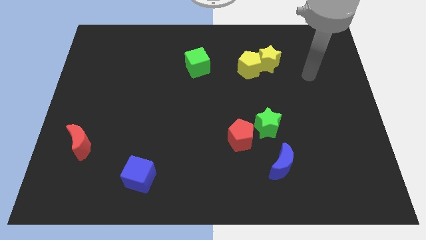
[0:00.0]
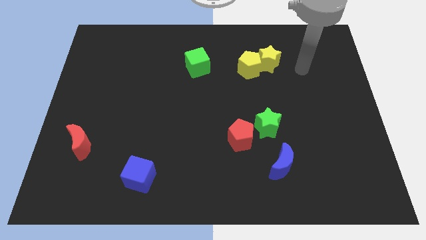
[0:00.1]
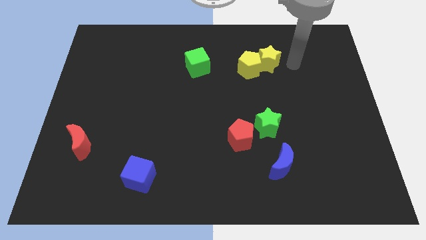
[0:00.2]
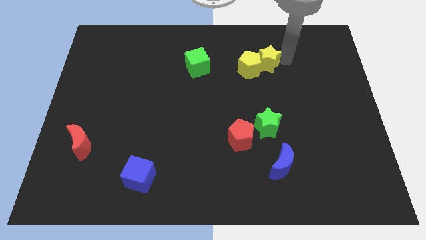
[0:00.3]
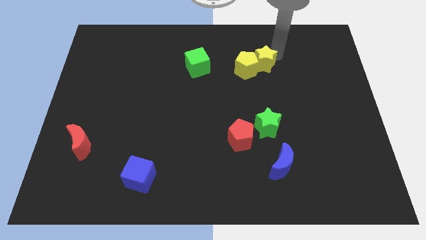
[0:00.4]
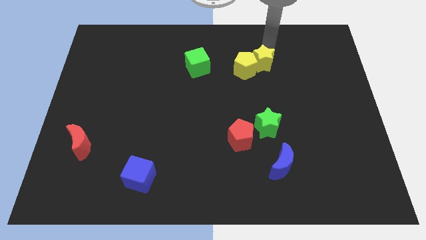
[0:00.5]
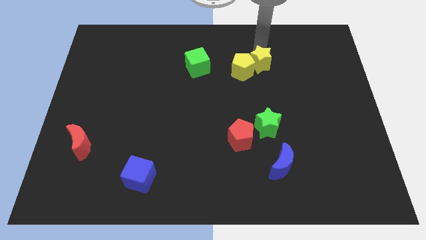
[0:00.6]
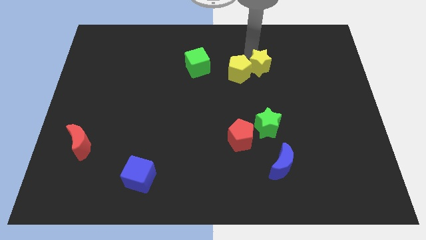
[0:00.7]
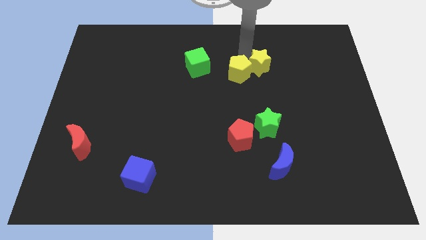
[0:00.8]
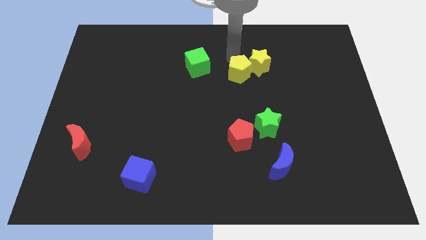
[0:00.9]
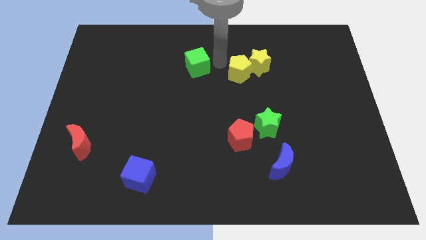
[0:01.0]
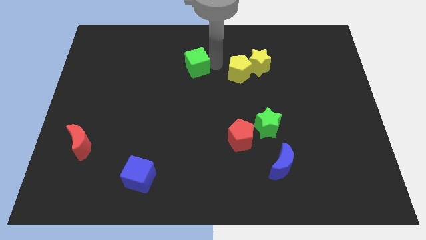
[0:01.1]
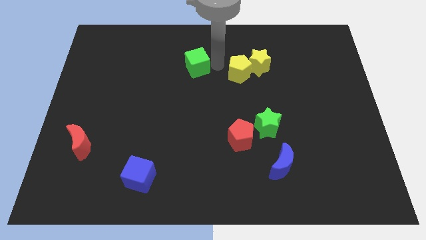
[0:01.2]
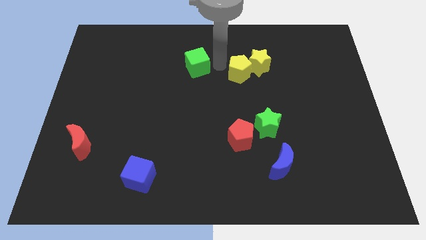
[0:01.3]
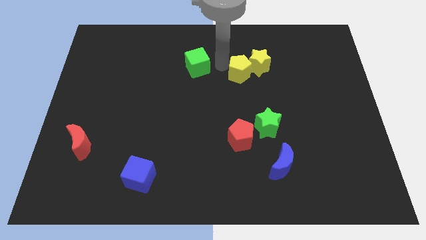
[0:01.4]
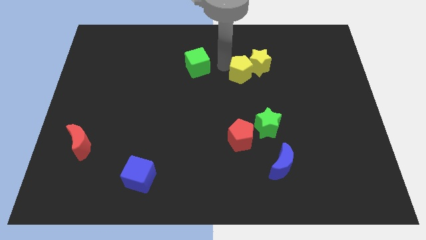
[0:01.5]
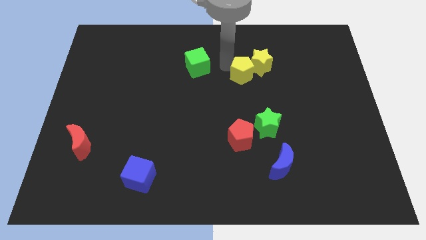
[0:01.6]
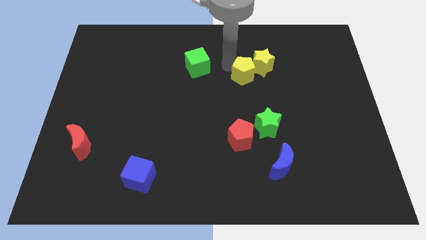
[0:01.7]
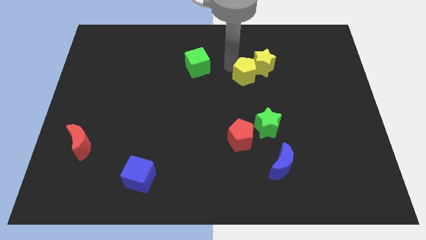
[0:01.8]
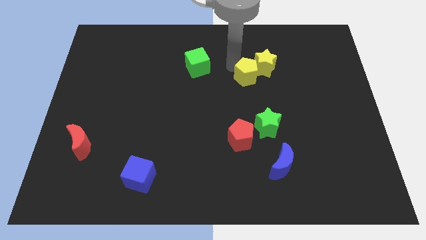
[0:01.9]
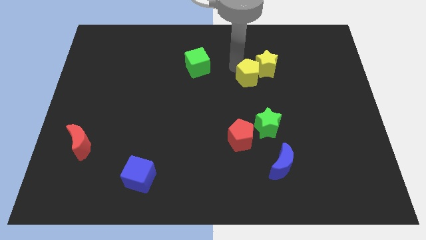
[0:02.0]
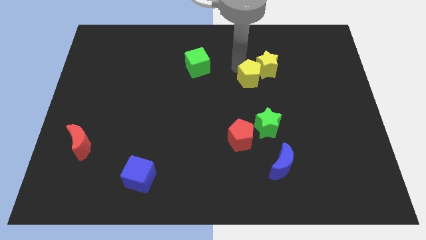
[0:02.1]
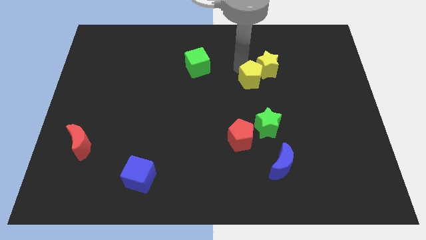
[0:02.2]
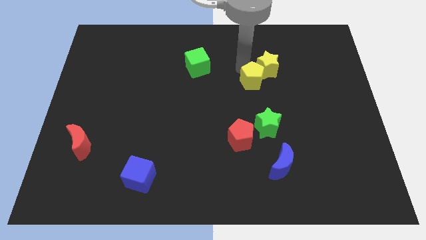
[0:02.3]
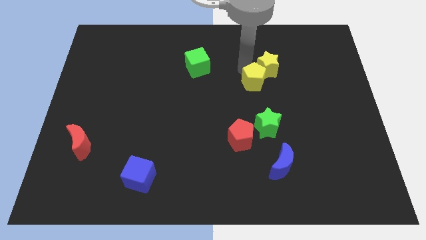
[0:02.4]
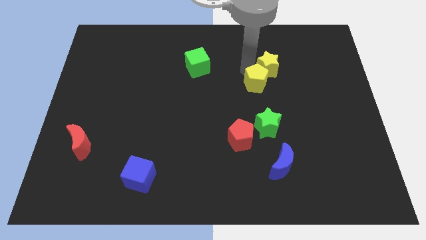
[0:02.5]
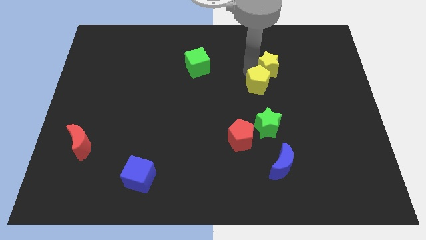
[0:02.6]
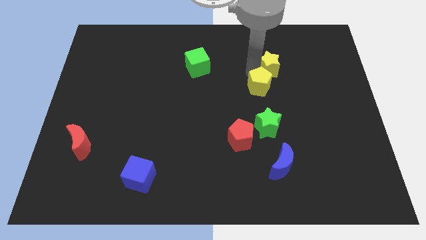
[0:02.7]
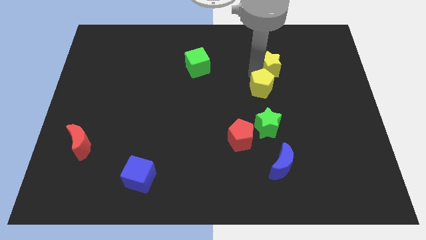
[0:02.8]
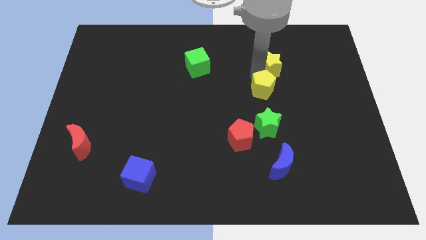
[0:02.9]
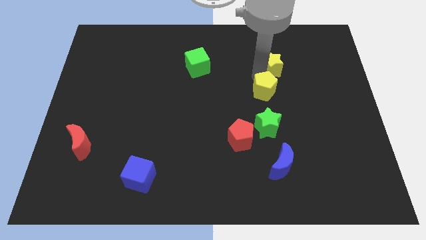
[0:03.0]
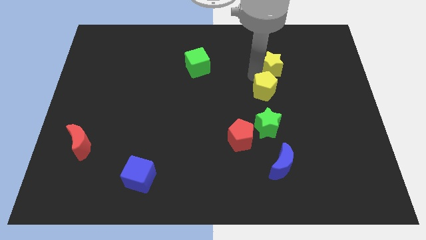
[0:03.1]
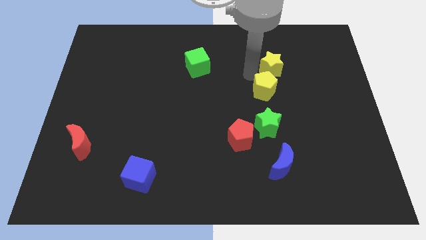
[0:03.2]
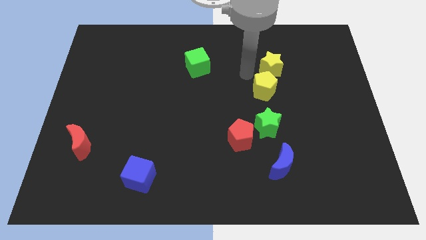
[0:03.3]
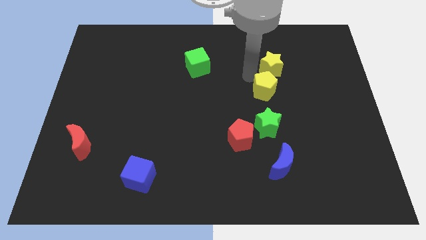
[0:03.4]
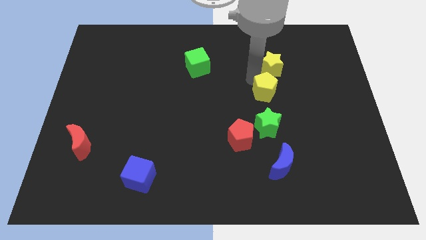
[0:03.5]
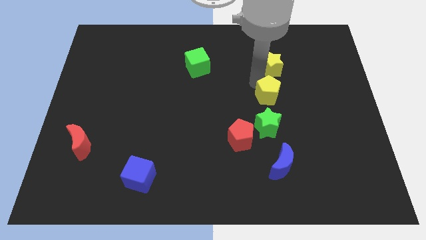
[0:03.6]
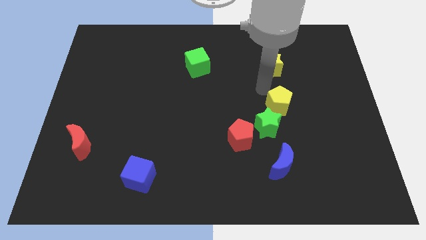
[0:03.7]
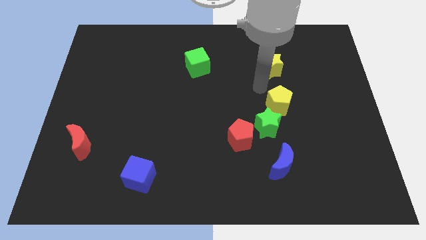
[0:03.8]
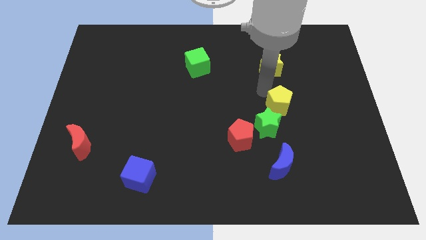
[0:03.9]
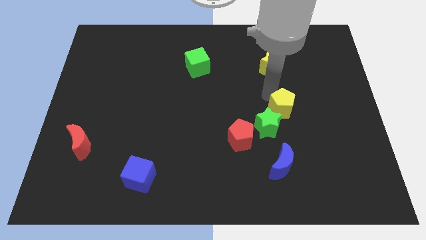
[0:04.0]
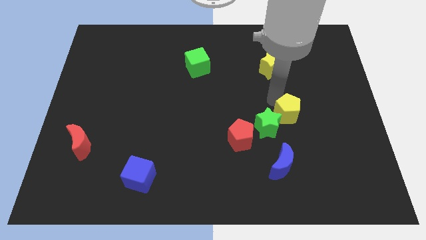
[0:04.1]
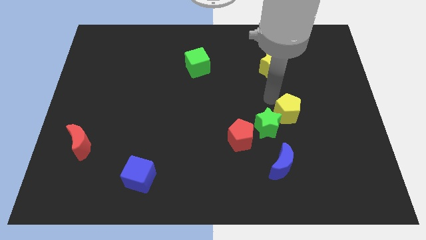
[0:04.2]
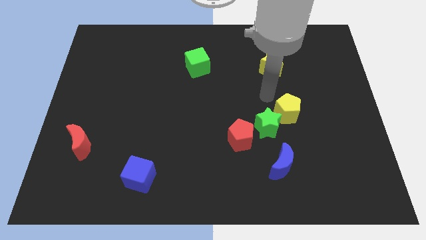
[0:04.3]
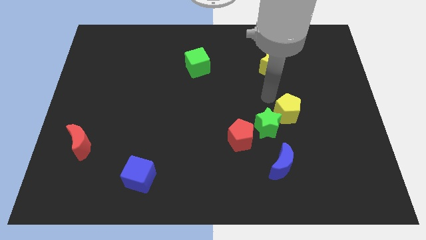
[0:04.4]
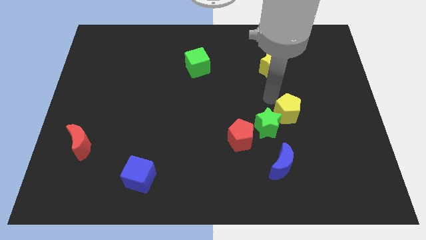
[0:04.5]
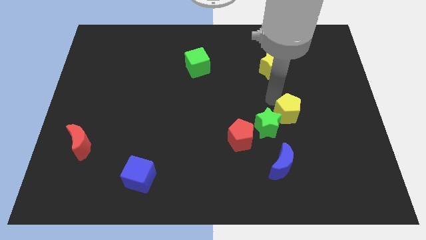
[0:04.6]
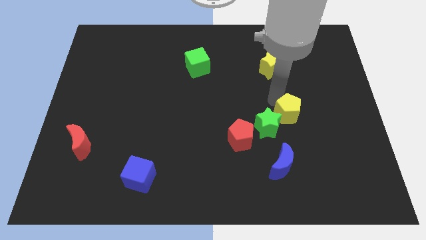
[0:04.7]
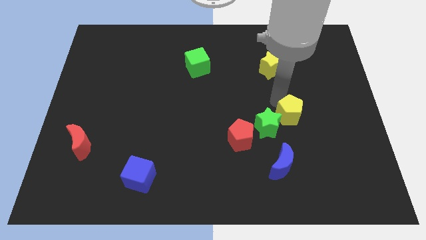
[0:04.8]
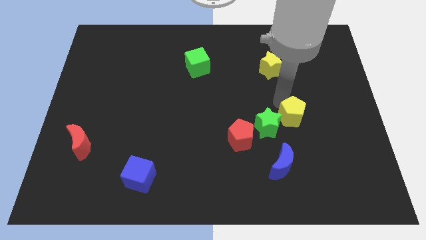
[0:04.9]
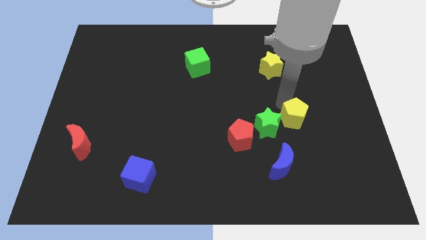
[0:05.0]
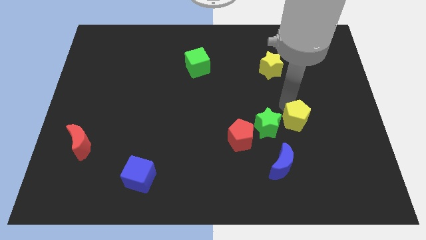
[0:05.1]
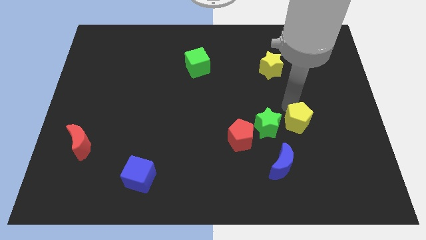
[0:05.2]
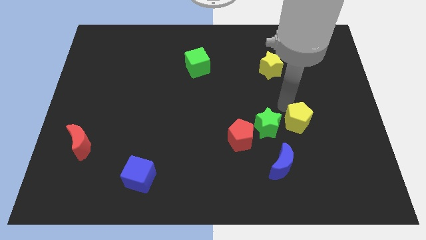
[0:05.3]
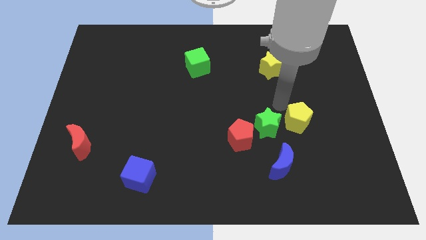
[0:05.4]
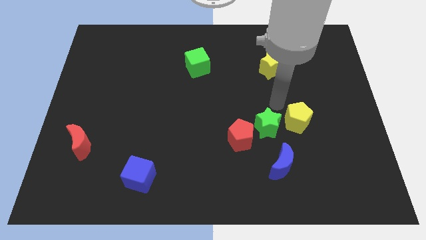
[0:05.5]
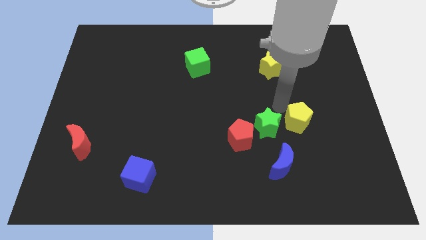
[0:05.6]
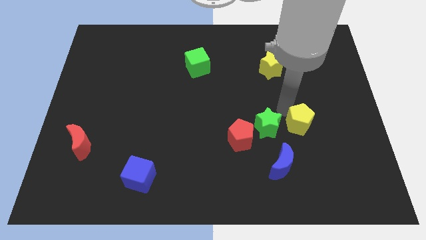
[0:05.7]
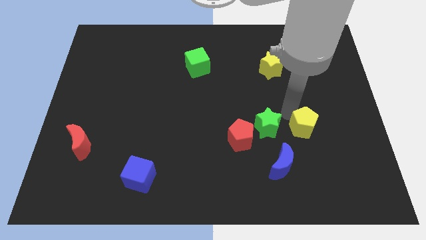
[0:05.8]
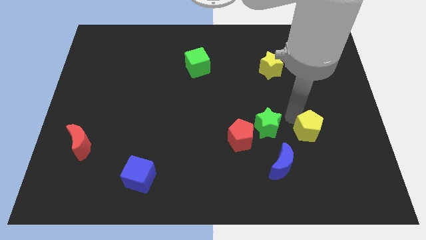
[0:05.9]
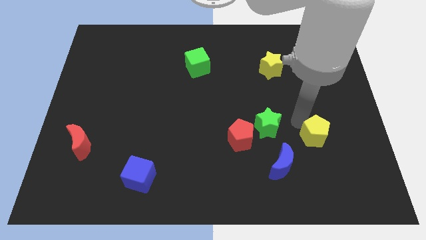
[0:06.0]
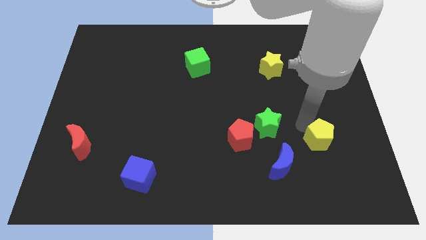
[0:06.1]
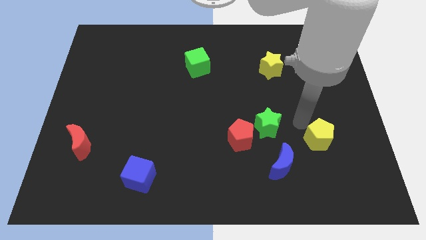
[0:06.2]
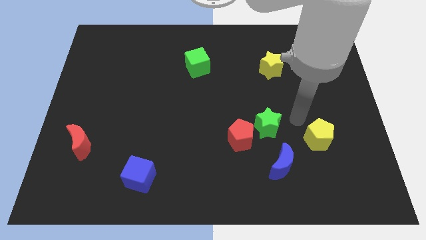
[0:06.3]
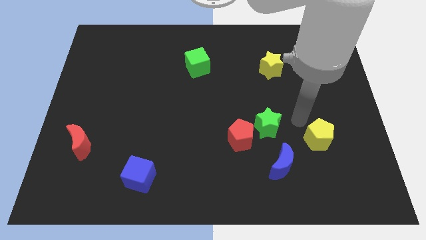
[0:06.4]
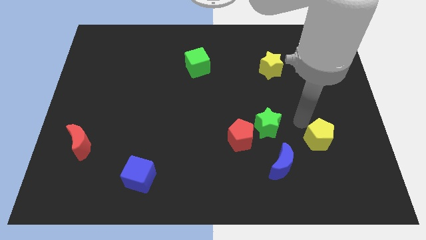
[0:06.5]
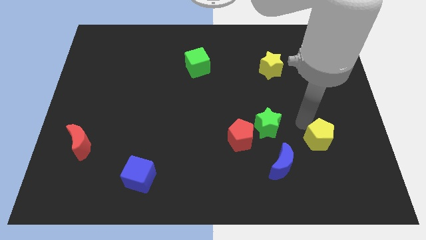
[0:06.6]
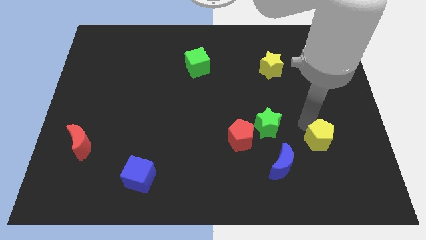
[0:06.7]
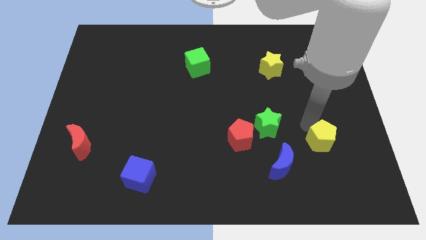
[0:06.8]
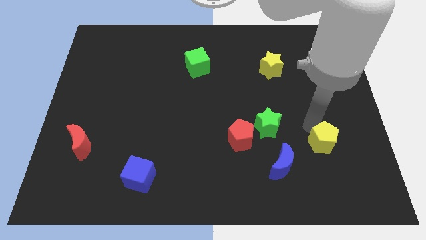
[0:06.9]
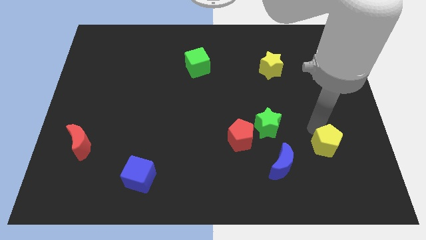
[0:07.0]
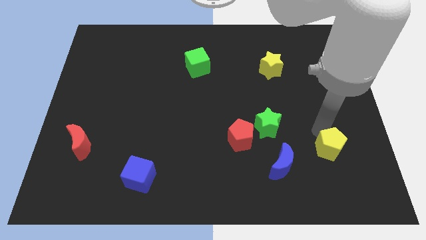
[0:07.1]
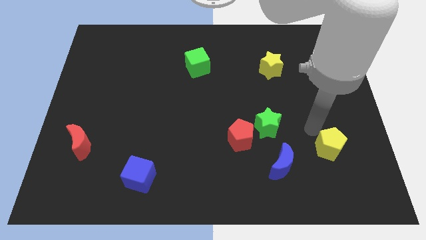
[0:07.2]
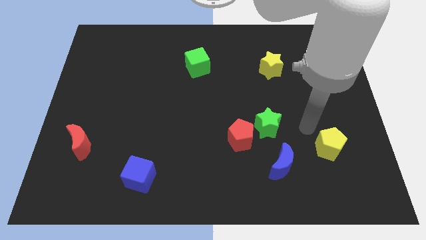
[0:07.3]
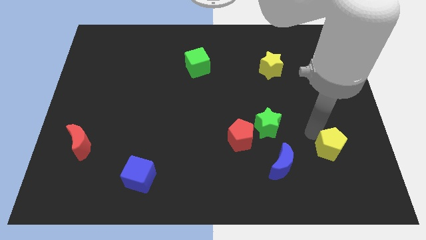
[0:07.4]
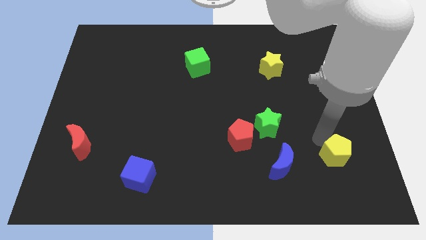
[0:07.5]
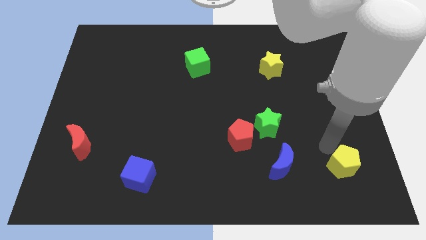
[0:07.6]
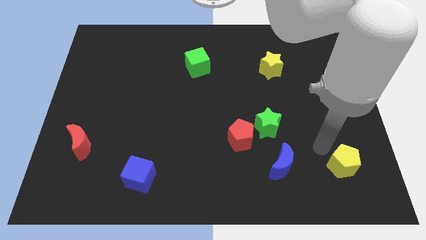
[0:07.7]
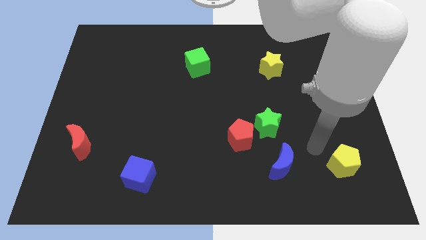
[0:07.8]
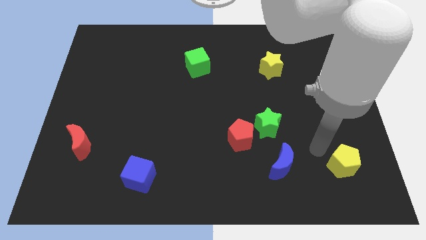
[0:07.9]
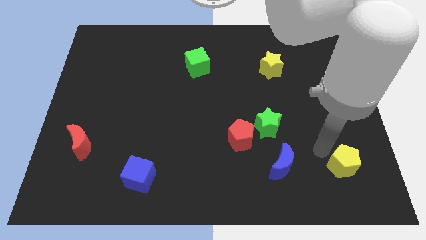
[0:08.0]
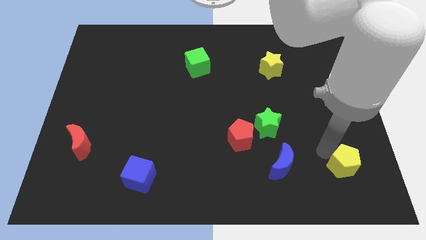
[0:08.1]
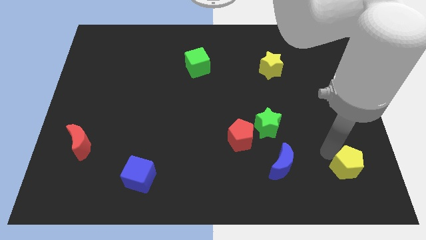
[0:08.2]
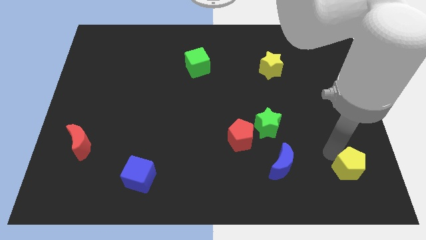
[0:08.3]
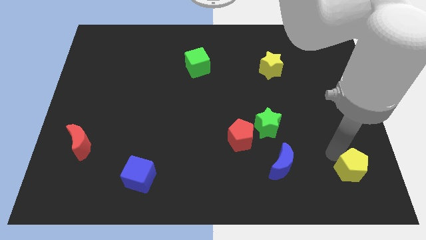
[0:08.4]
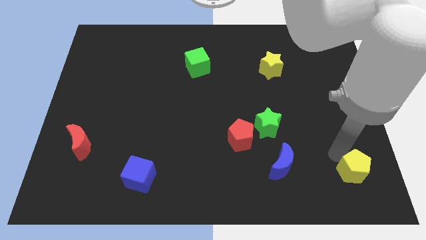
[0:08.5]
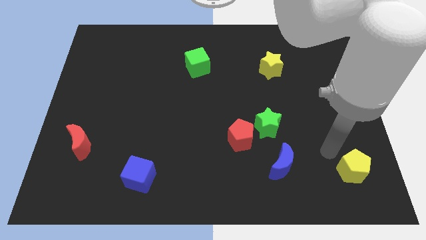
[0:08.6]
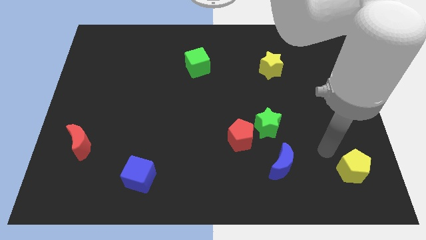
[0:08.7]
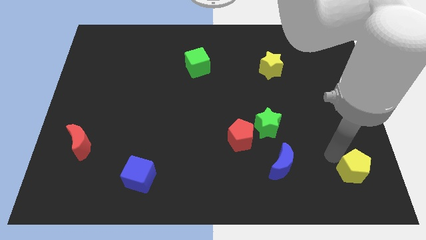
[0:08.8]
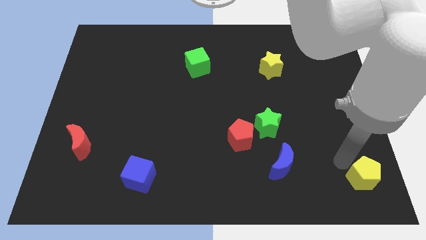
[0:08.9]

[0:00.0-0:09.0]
push the yellow pentagon to the bottom right
